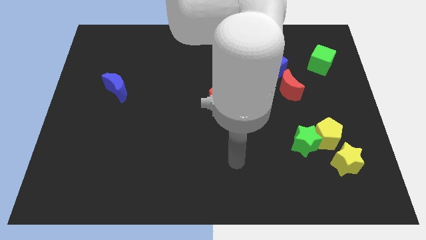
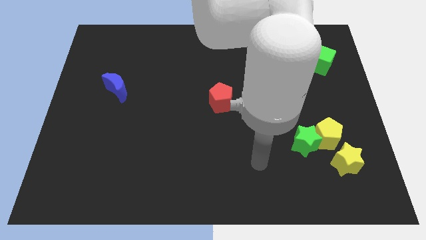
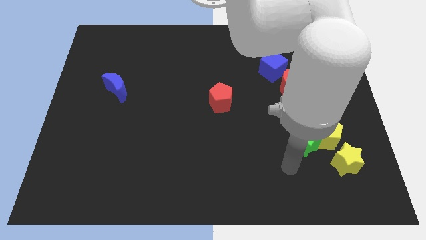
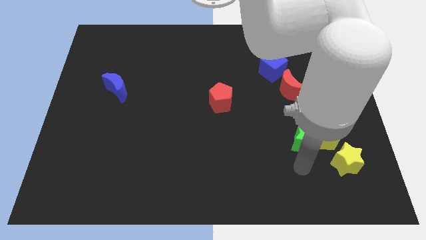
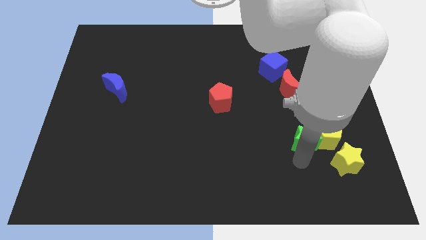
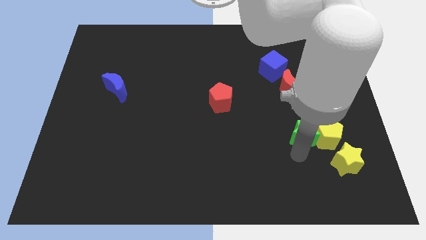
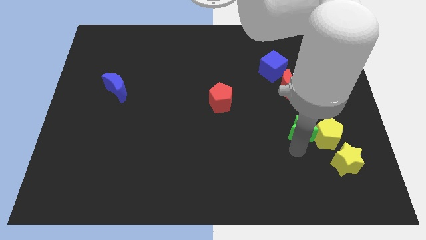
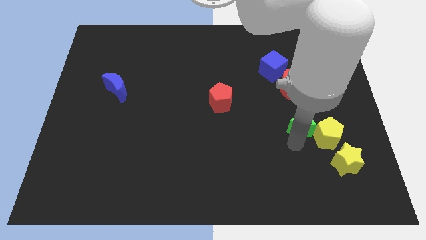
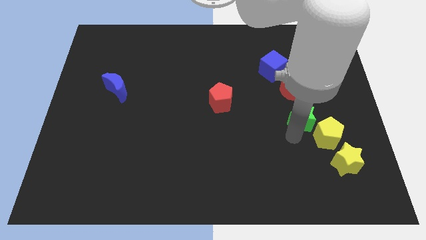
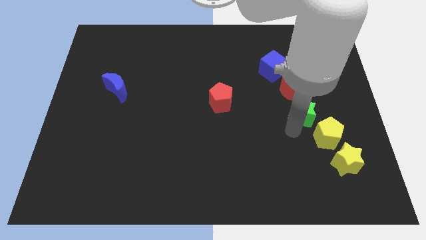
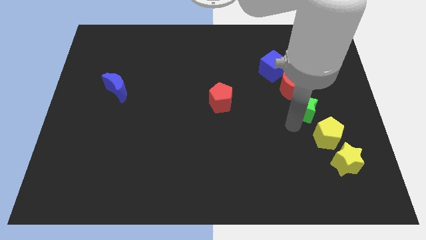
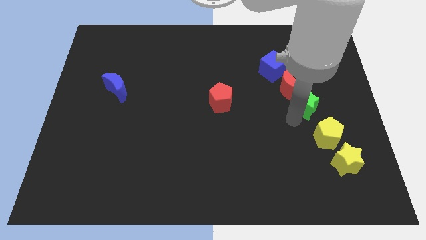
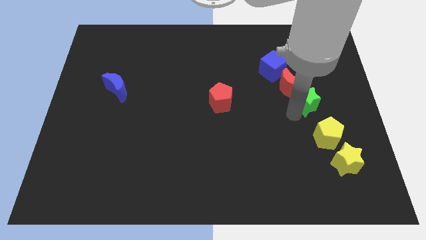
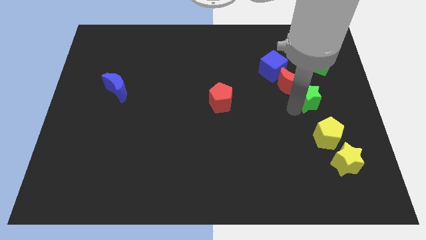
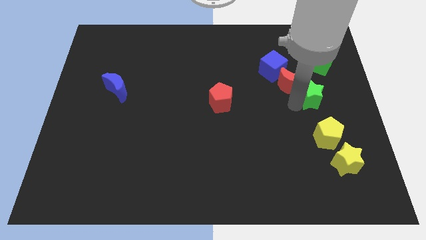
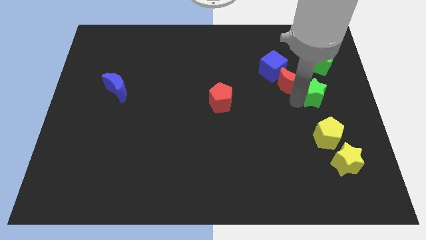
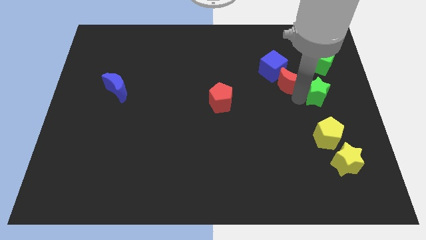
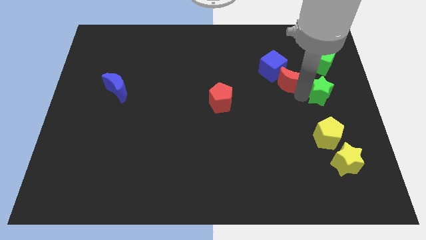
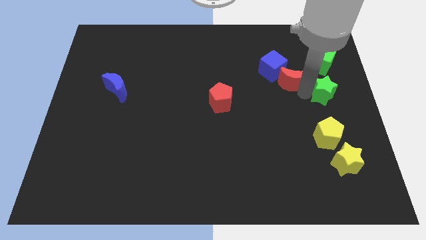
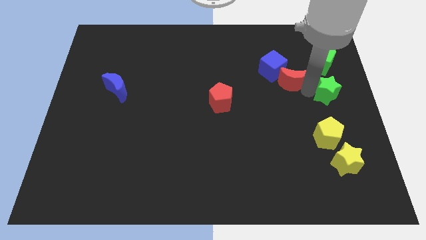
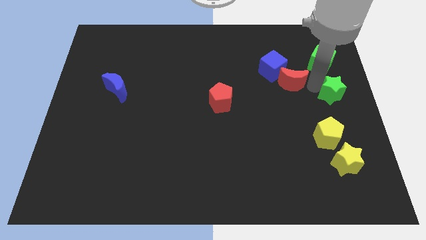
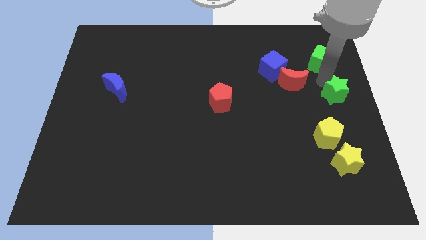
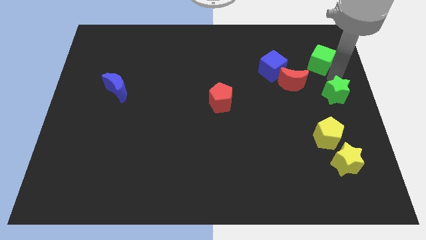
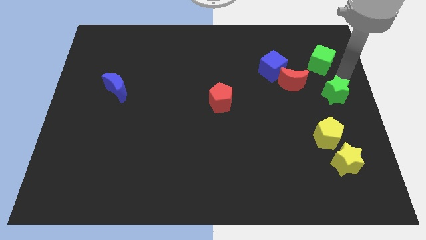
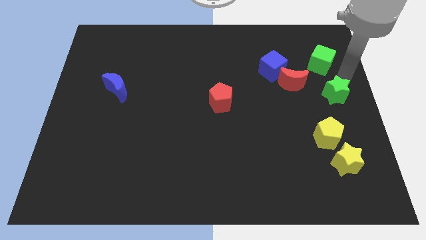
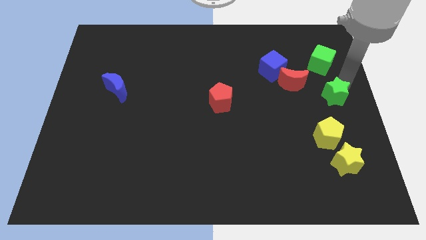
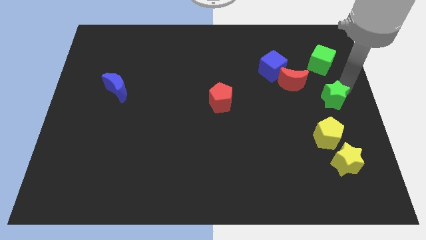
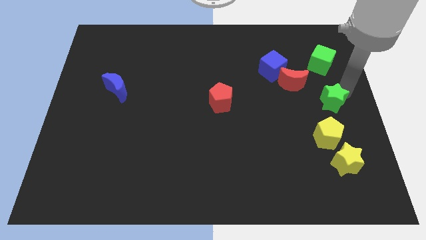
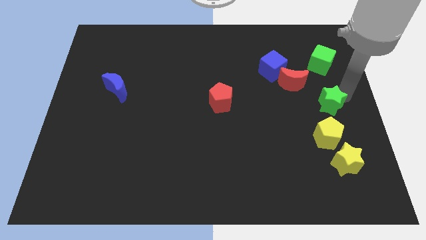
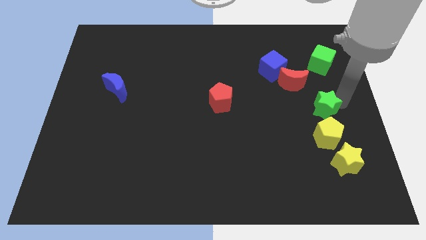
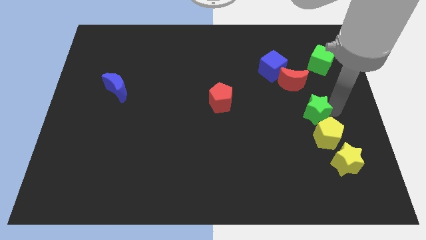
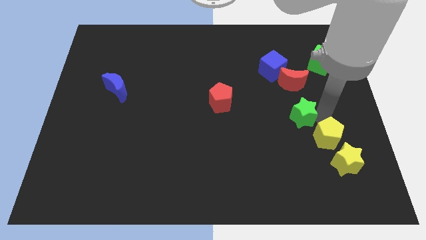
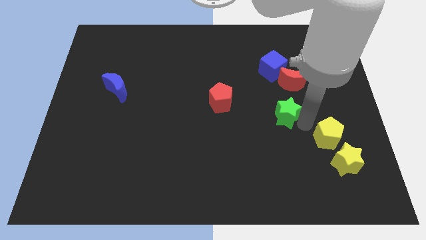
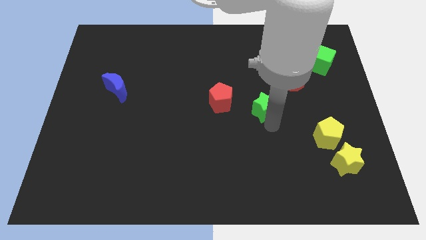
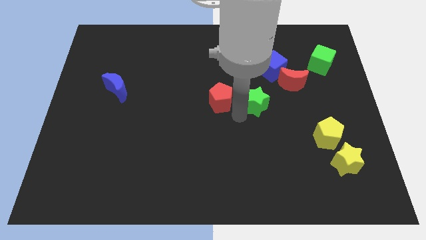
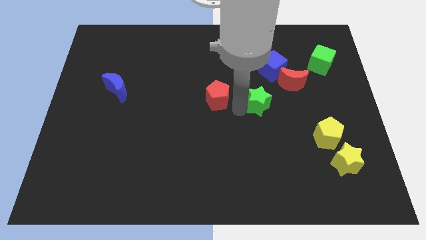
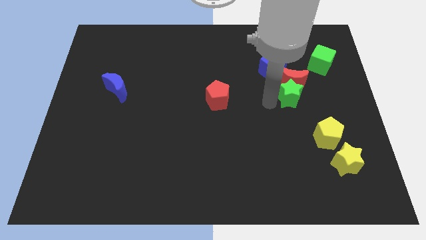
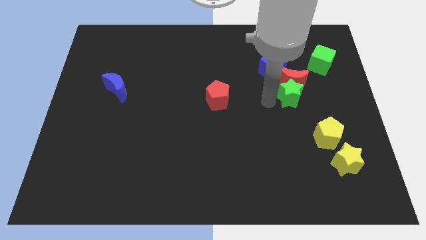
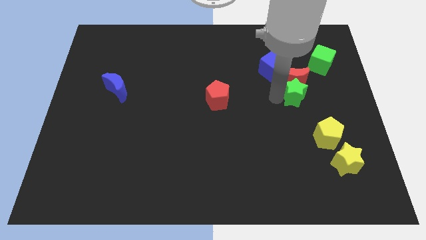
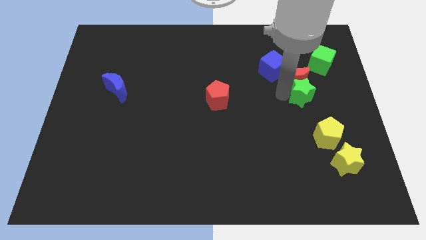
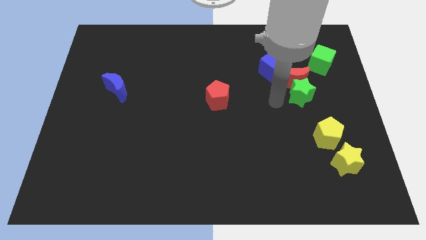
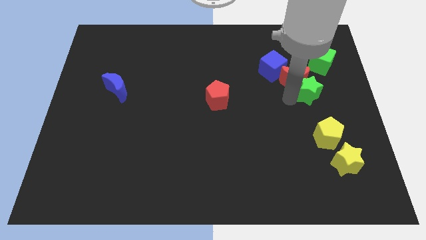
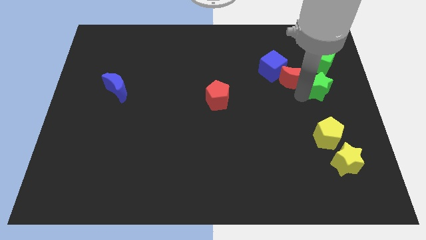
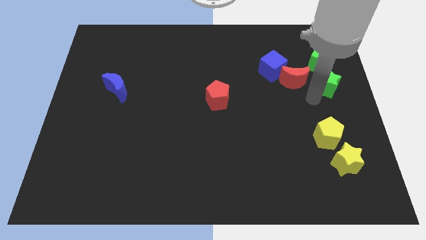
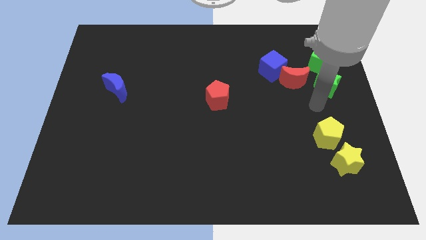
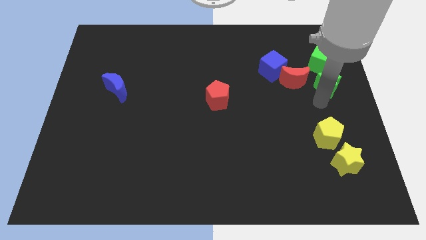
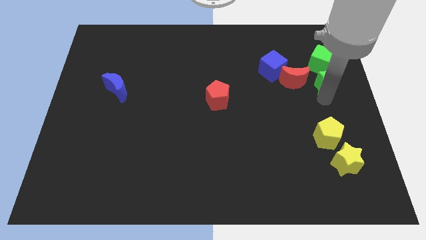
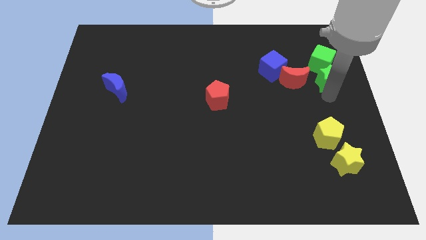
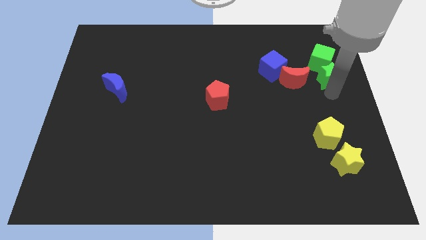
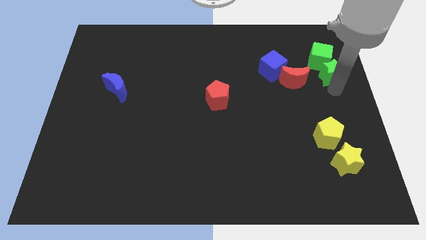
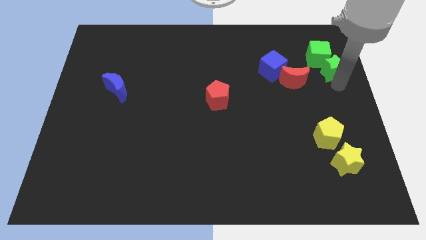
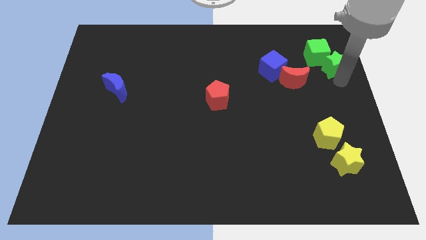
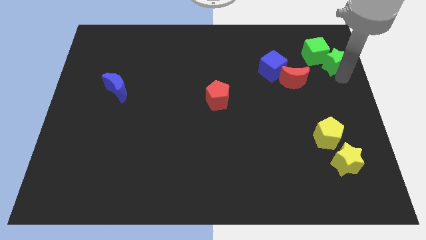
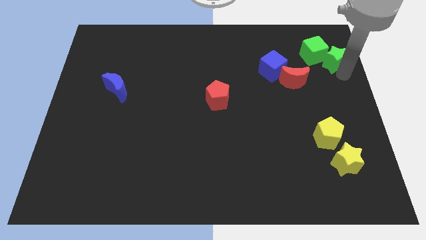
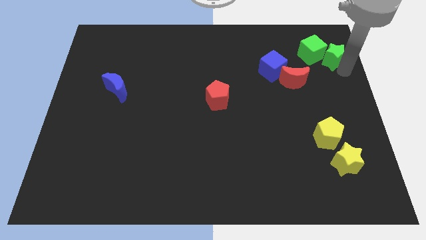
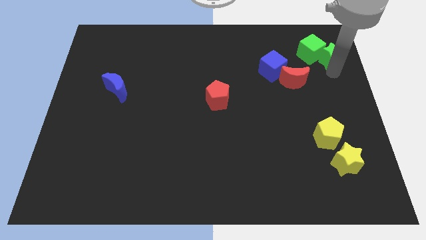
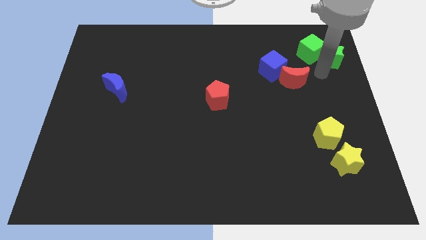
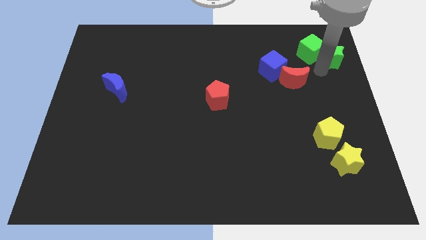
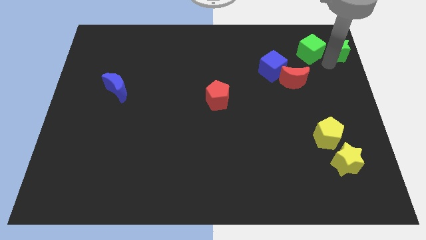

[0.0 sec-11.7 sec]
slide the green star to the top right of the board

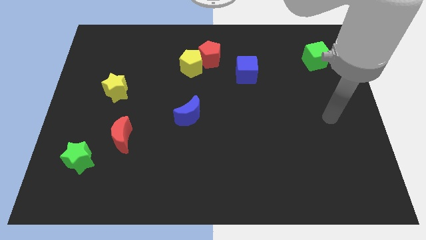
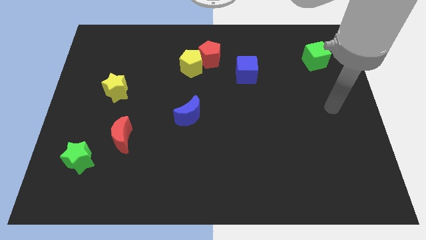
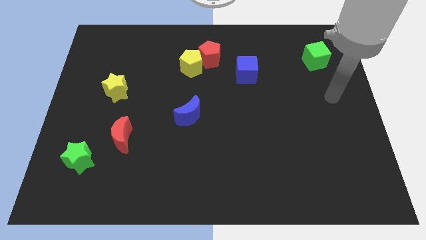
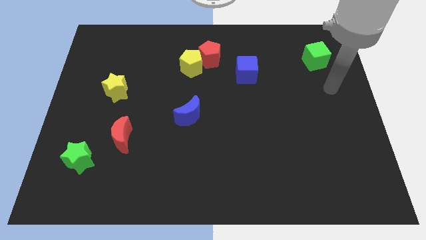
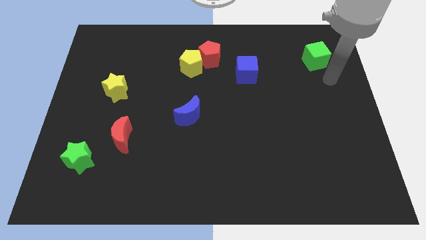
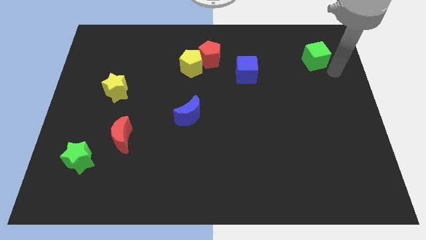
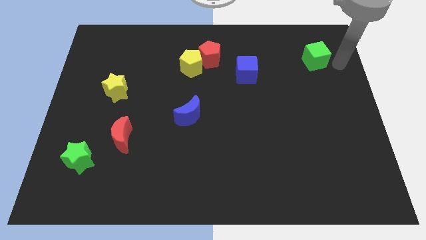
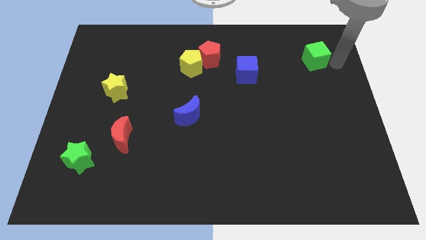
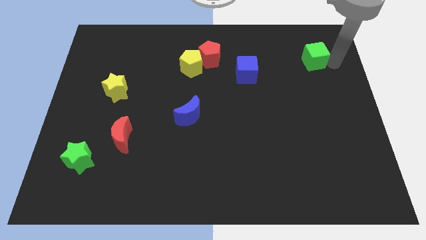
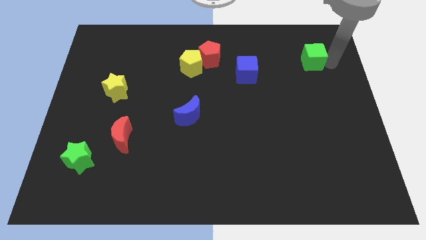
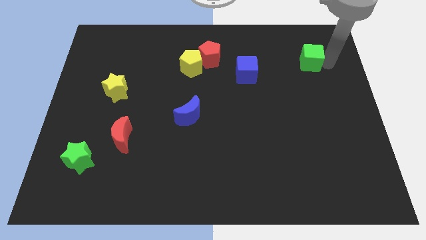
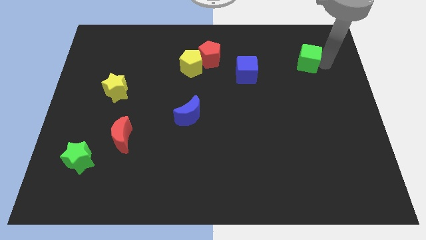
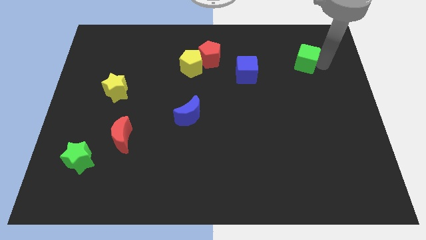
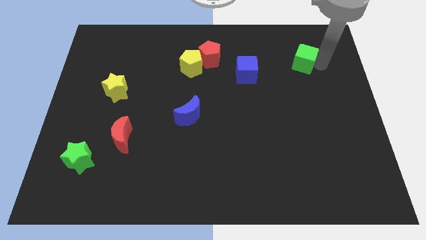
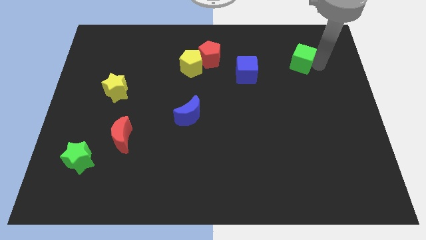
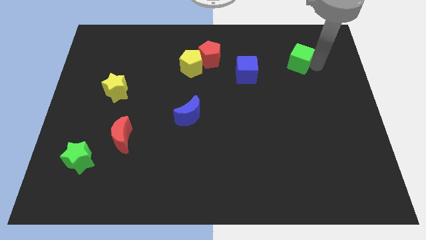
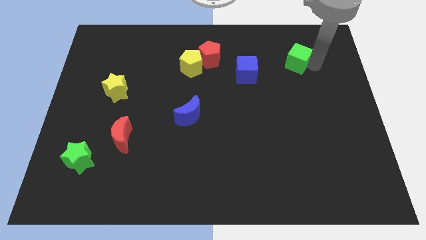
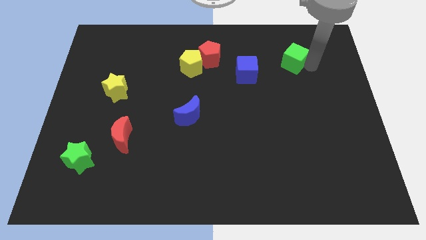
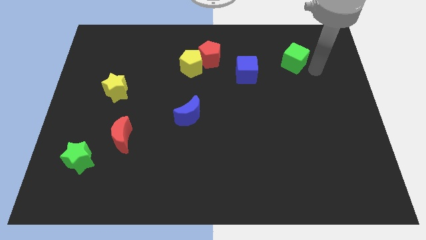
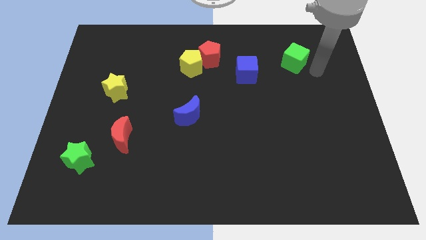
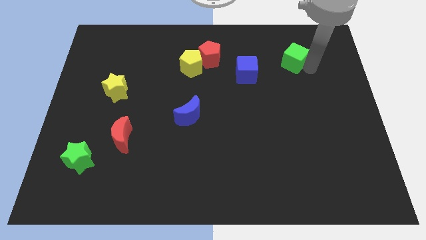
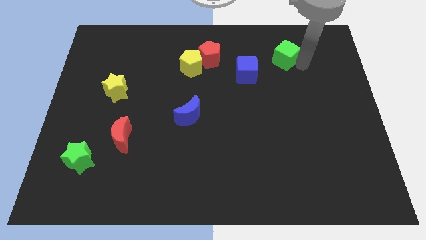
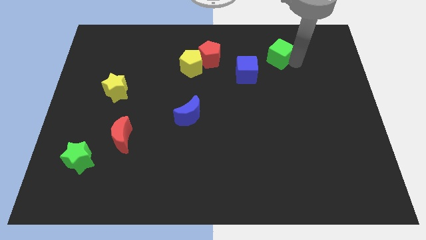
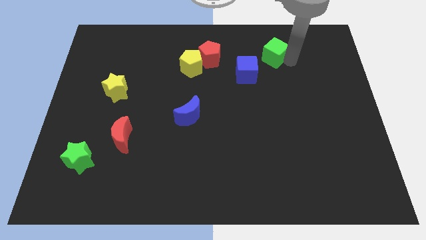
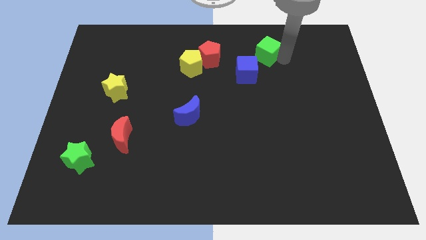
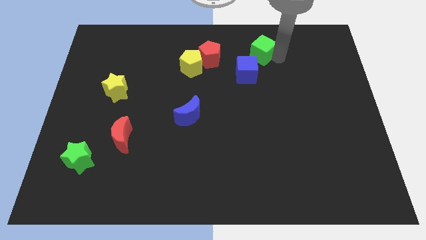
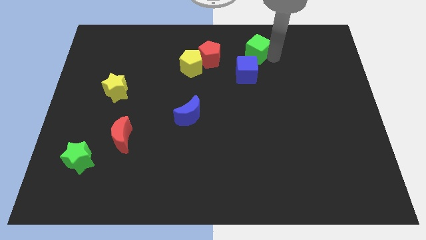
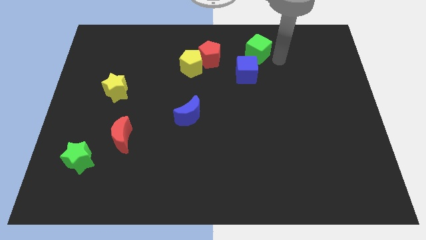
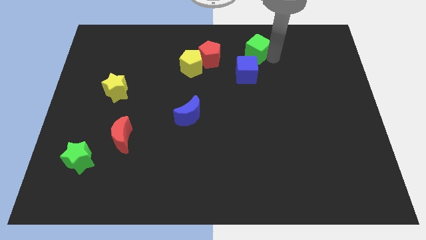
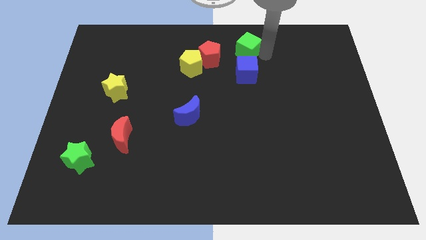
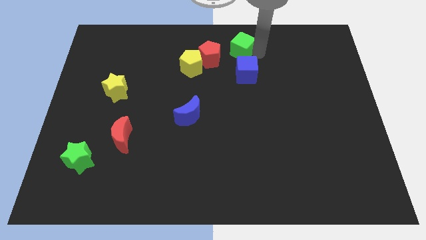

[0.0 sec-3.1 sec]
put the green cube to the towards your base
